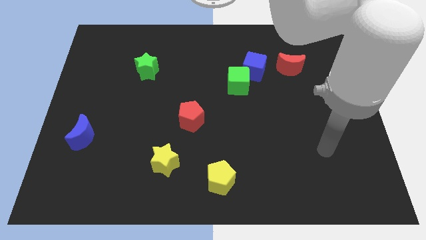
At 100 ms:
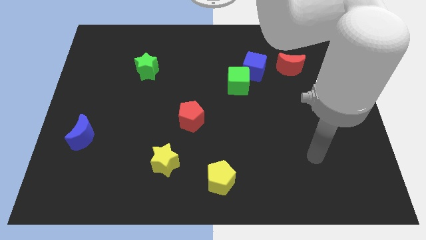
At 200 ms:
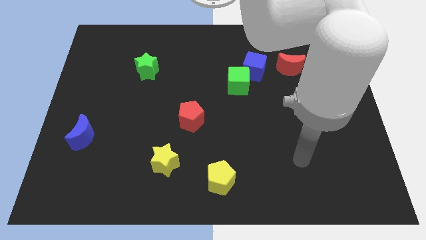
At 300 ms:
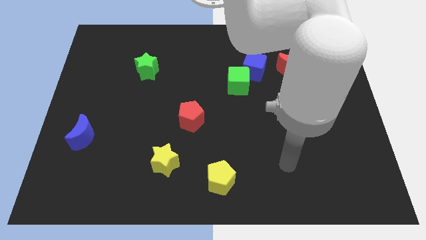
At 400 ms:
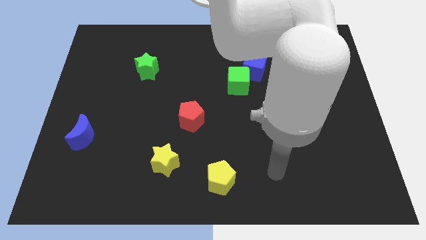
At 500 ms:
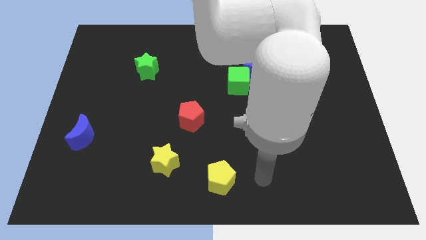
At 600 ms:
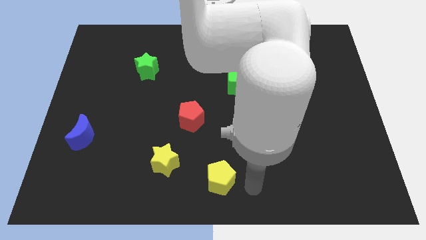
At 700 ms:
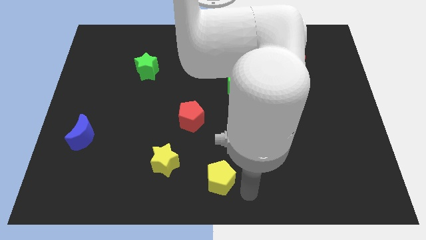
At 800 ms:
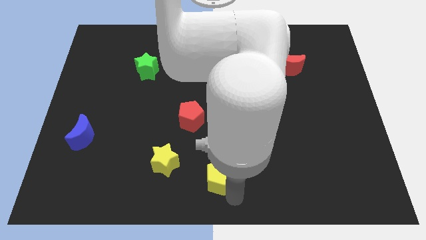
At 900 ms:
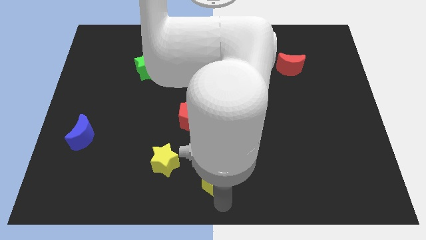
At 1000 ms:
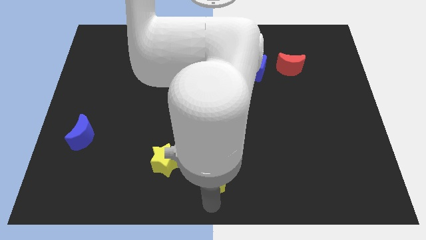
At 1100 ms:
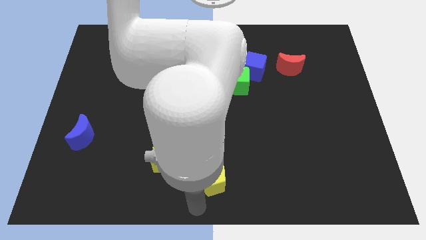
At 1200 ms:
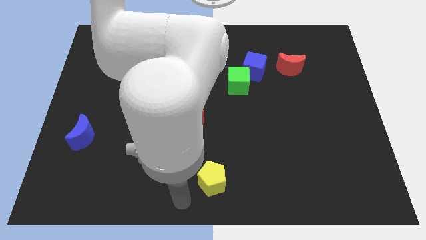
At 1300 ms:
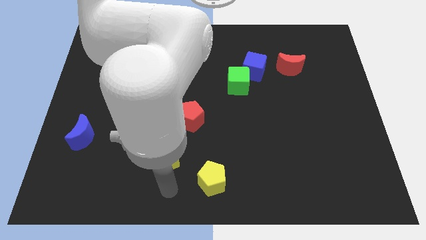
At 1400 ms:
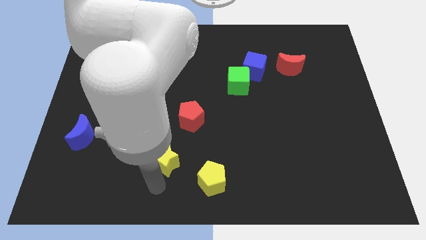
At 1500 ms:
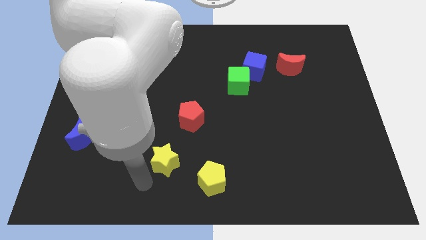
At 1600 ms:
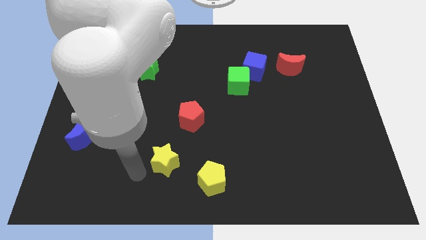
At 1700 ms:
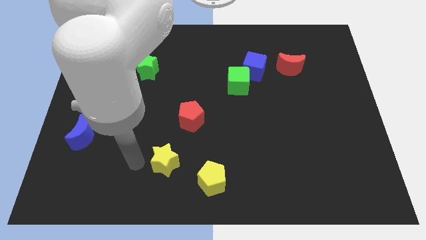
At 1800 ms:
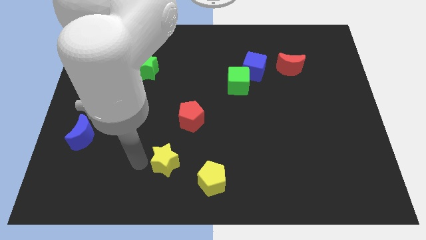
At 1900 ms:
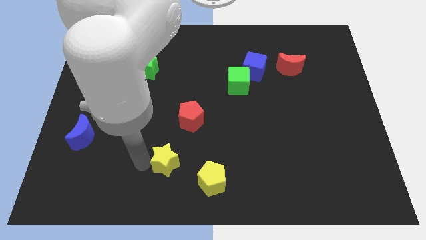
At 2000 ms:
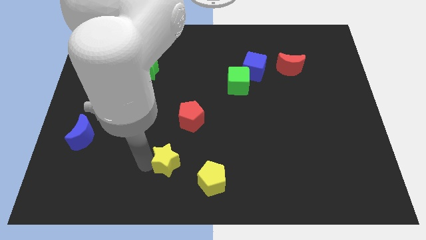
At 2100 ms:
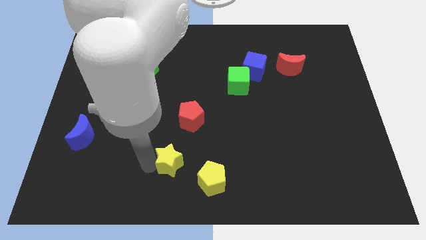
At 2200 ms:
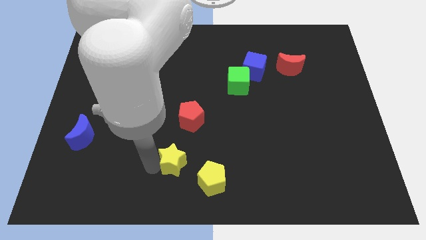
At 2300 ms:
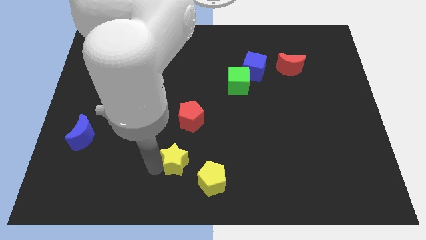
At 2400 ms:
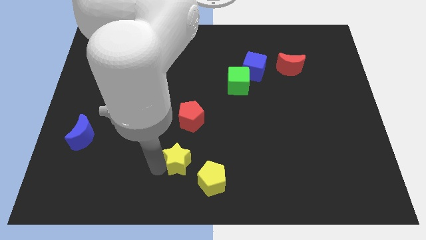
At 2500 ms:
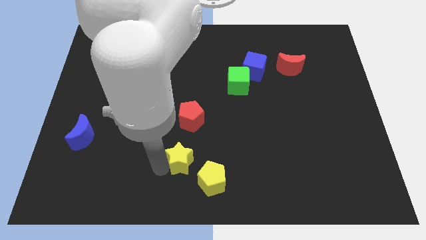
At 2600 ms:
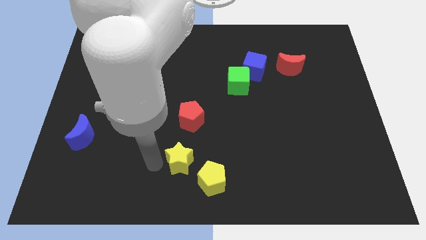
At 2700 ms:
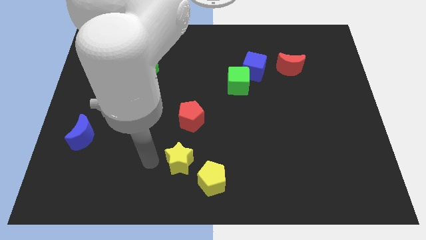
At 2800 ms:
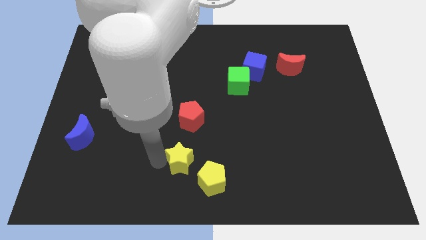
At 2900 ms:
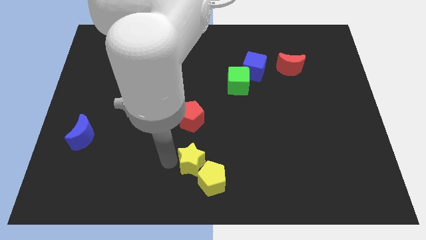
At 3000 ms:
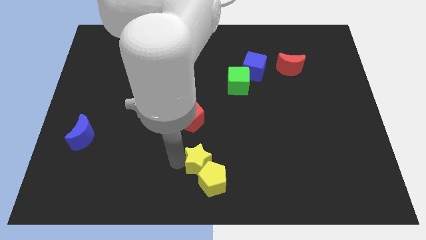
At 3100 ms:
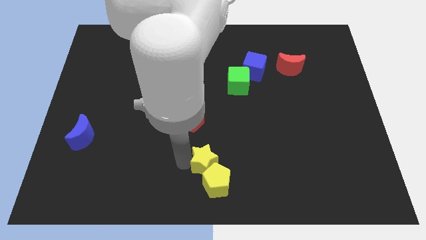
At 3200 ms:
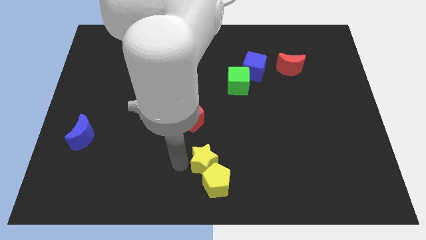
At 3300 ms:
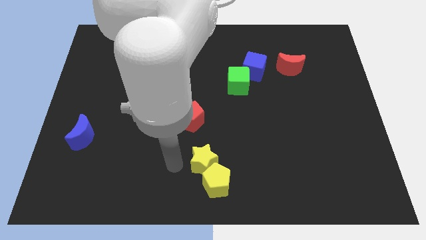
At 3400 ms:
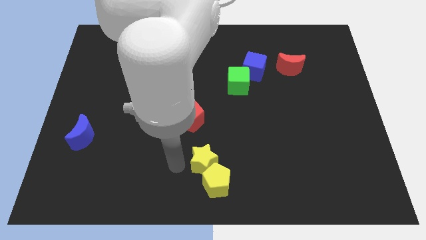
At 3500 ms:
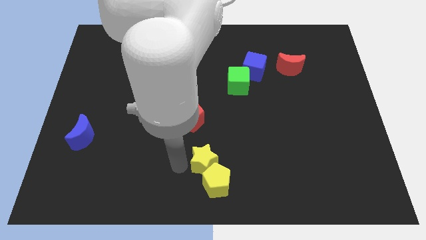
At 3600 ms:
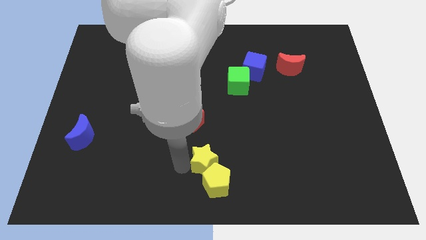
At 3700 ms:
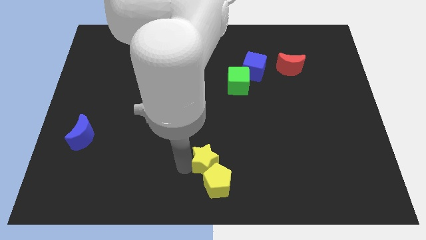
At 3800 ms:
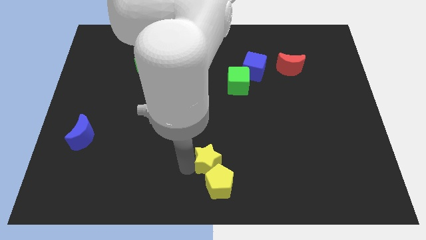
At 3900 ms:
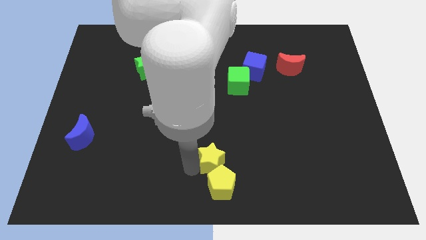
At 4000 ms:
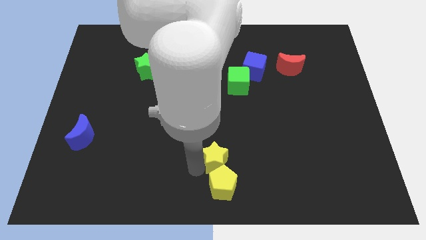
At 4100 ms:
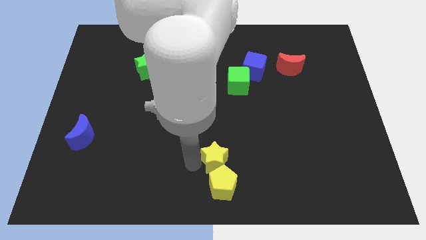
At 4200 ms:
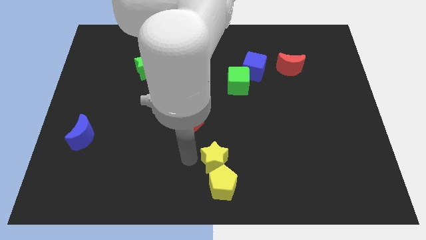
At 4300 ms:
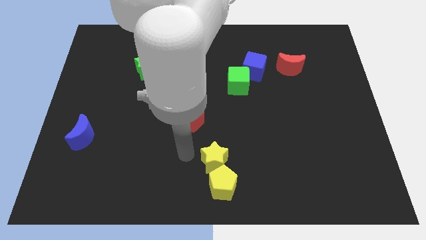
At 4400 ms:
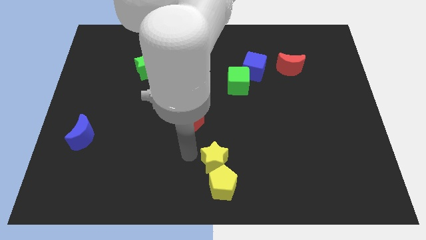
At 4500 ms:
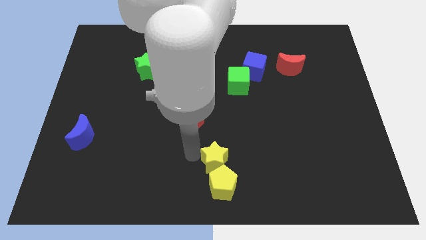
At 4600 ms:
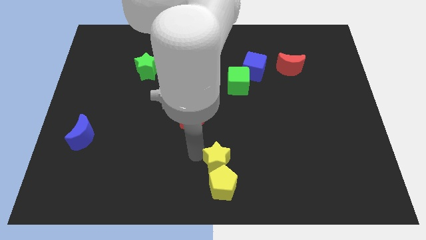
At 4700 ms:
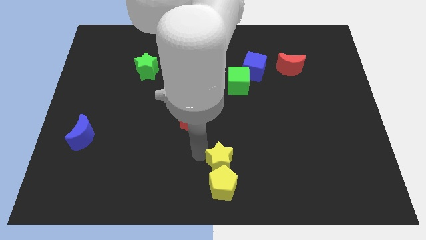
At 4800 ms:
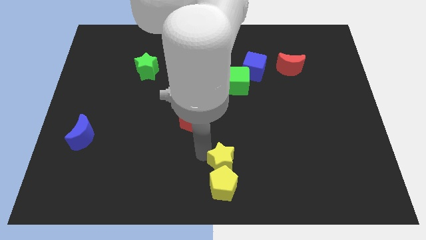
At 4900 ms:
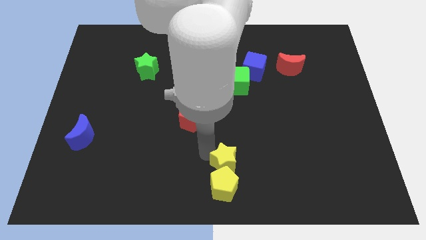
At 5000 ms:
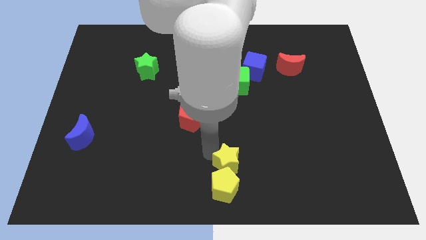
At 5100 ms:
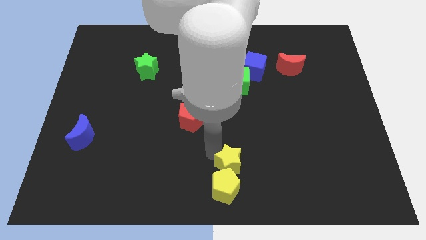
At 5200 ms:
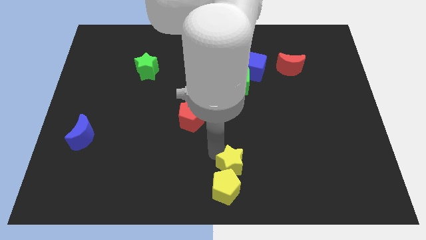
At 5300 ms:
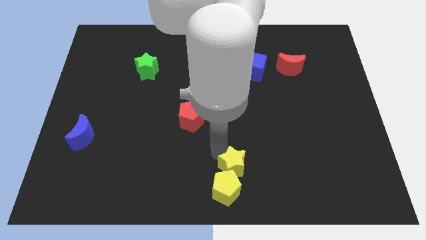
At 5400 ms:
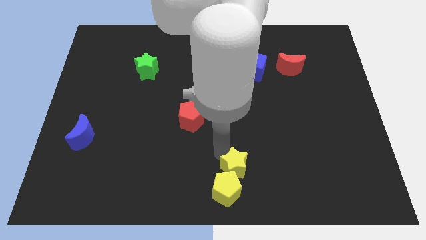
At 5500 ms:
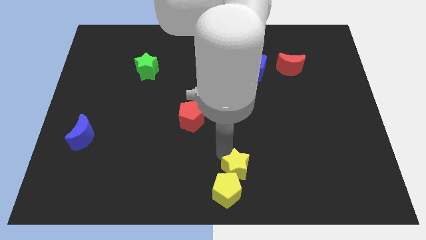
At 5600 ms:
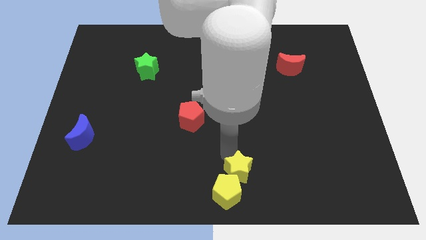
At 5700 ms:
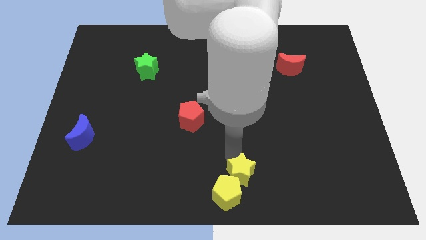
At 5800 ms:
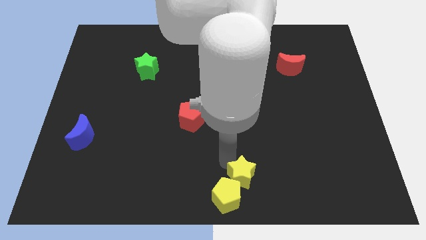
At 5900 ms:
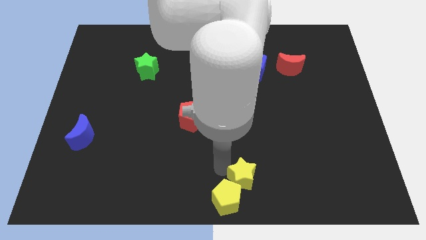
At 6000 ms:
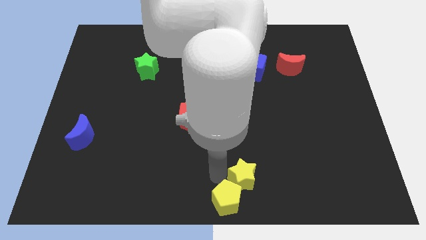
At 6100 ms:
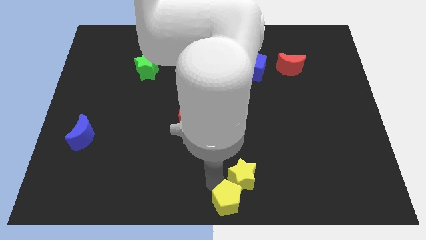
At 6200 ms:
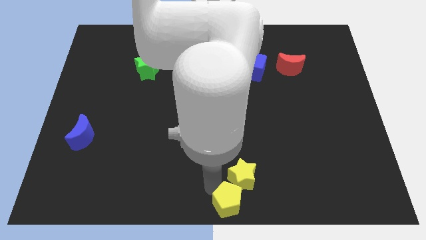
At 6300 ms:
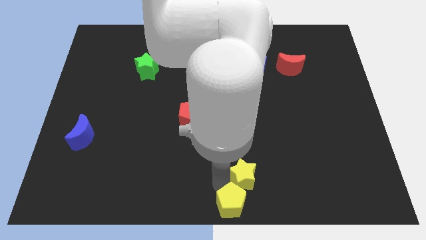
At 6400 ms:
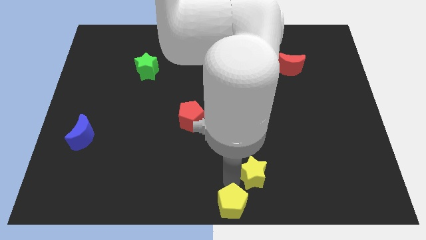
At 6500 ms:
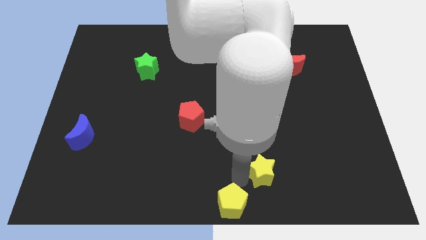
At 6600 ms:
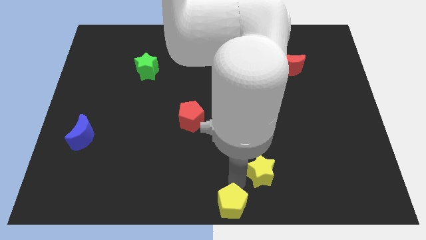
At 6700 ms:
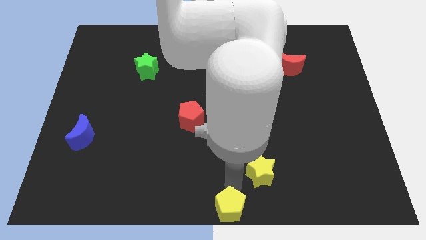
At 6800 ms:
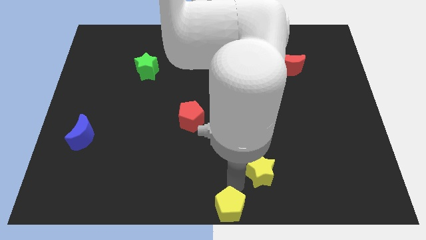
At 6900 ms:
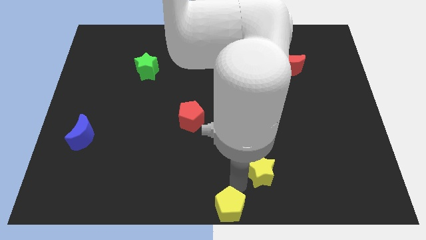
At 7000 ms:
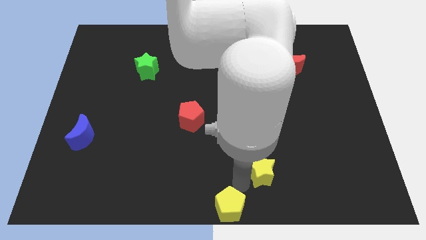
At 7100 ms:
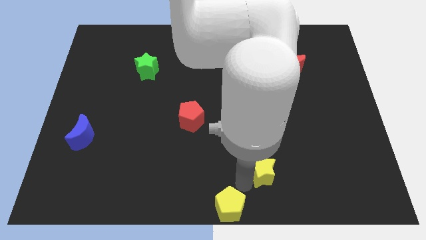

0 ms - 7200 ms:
push the yellow star to the right

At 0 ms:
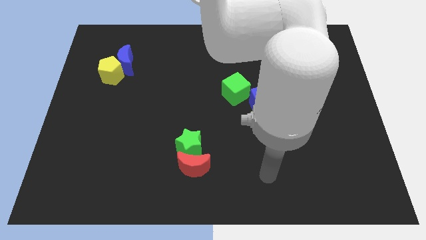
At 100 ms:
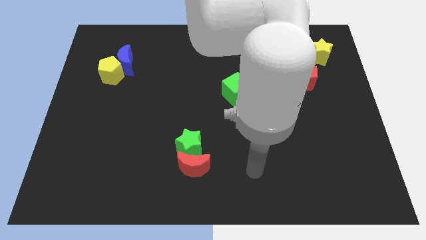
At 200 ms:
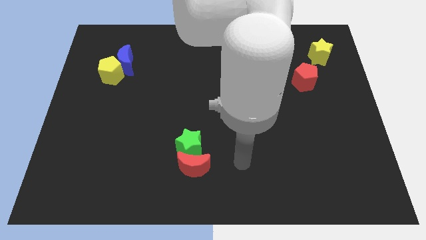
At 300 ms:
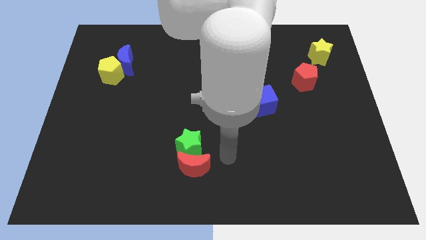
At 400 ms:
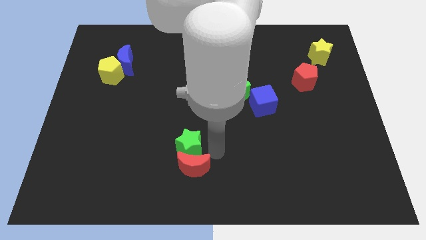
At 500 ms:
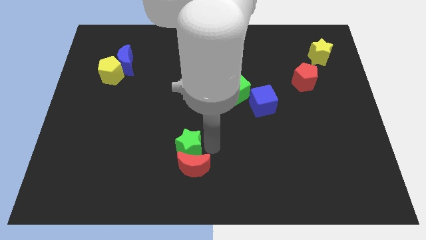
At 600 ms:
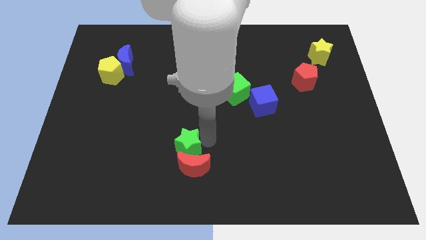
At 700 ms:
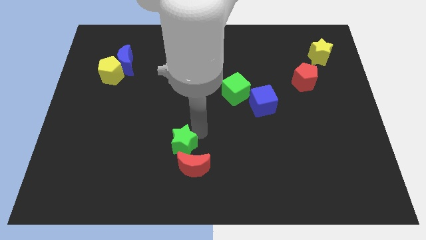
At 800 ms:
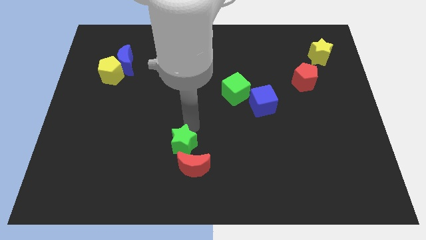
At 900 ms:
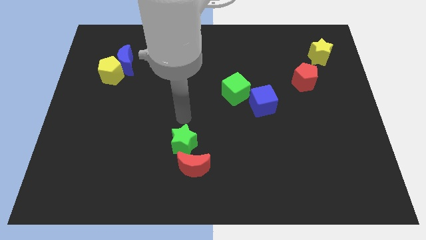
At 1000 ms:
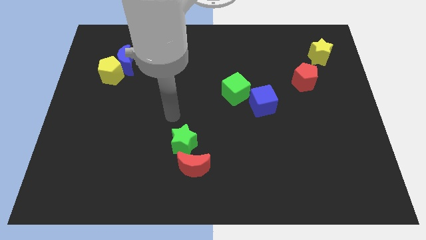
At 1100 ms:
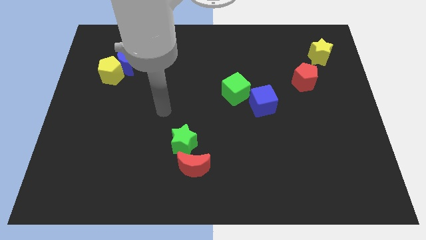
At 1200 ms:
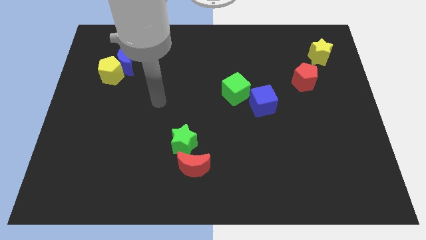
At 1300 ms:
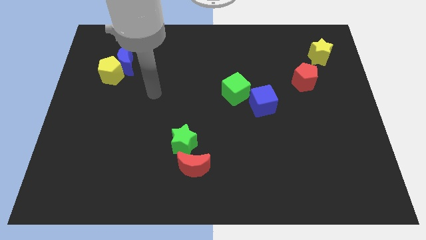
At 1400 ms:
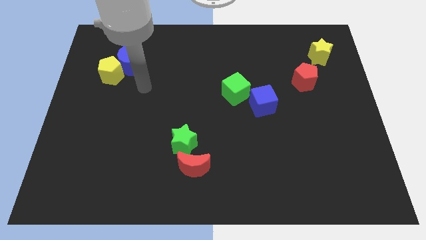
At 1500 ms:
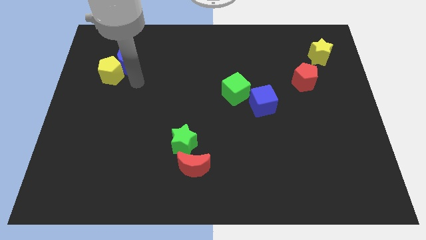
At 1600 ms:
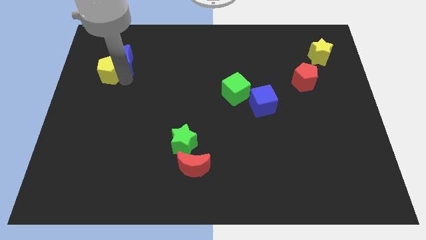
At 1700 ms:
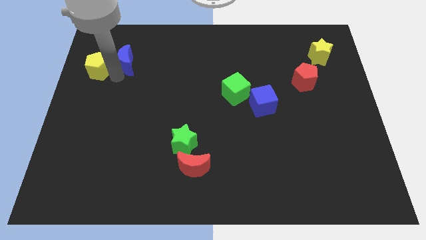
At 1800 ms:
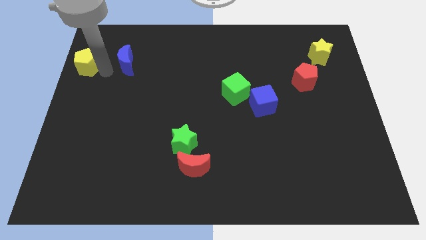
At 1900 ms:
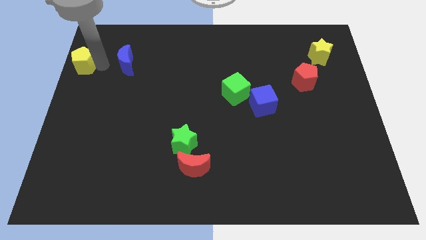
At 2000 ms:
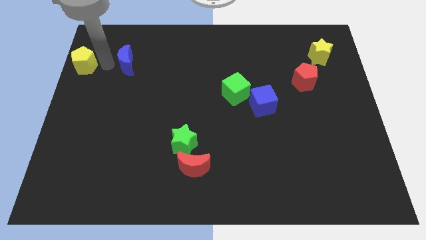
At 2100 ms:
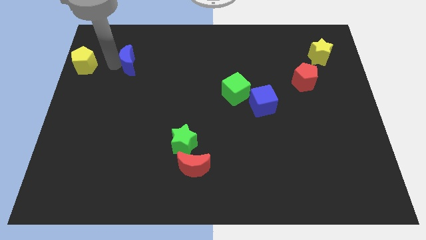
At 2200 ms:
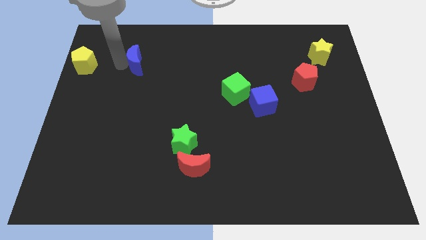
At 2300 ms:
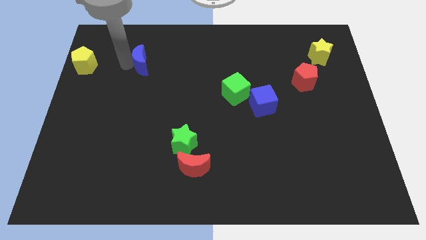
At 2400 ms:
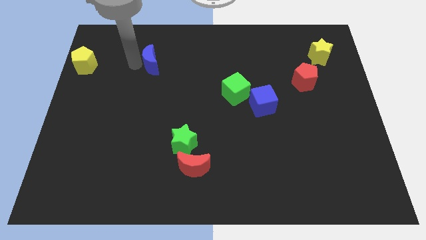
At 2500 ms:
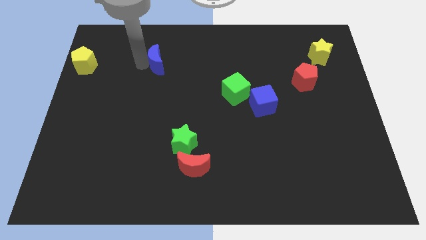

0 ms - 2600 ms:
push the blue moon to the right somewhat
